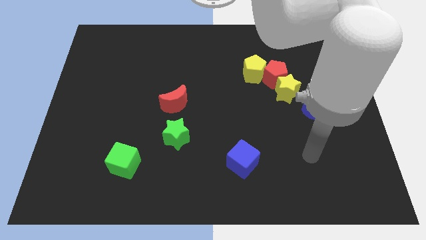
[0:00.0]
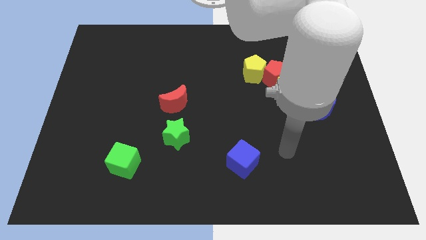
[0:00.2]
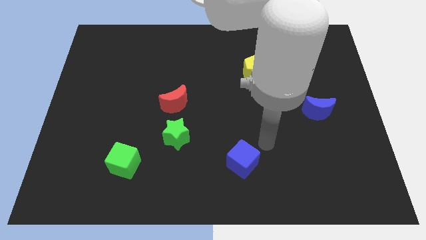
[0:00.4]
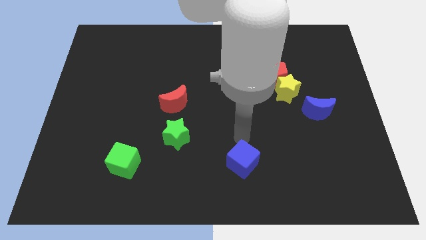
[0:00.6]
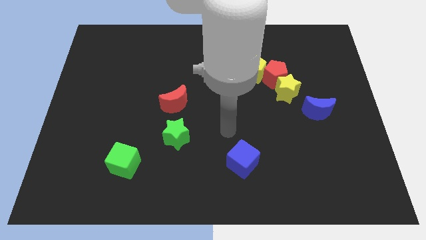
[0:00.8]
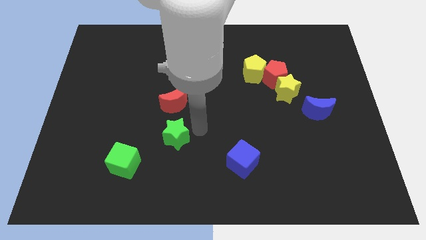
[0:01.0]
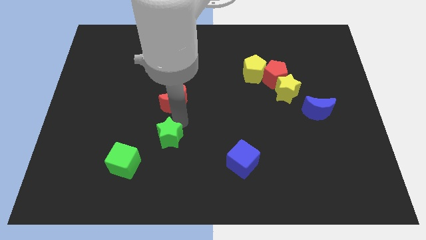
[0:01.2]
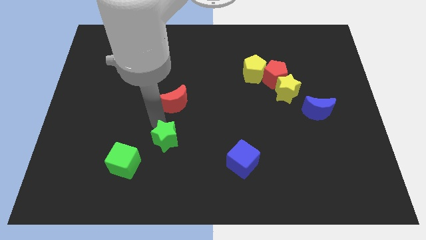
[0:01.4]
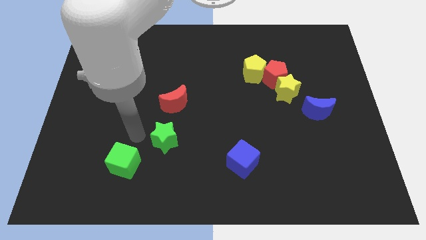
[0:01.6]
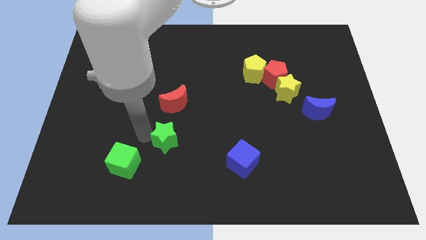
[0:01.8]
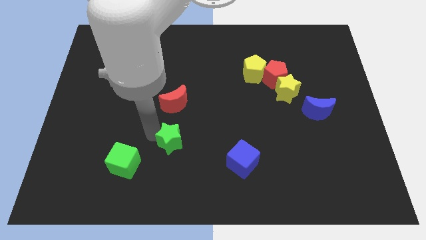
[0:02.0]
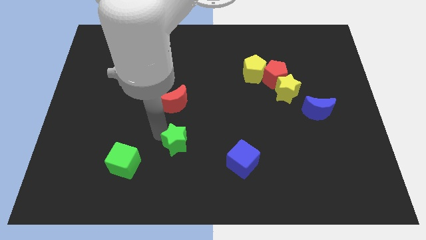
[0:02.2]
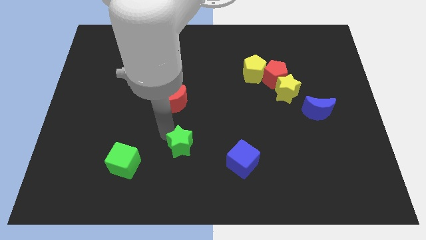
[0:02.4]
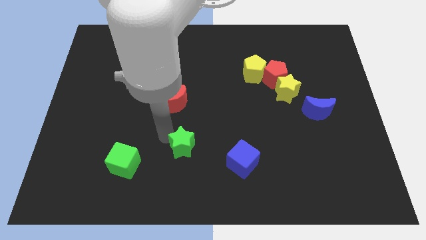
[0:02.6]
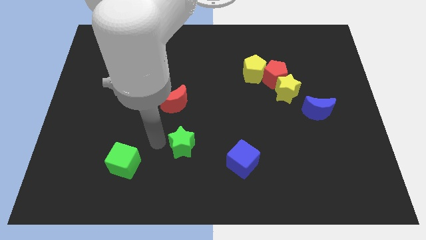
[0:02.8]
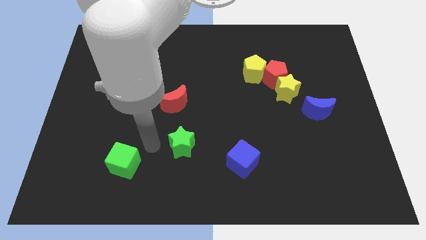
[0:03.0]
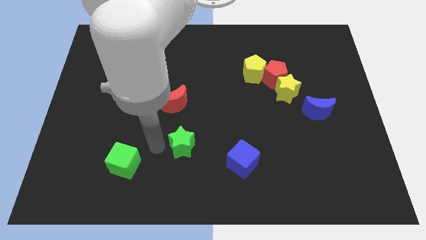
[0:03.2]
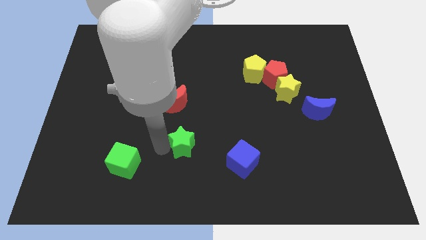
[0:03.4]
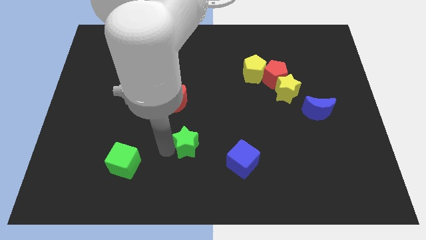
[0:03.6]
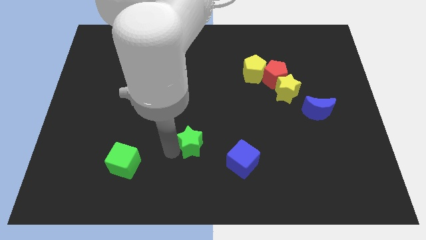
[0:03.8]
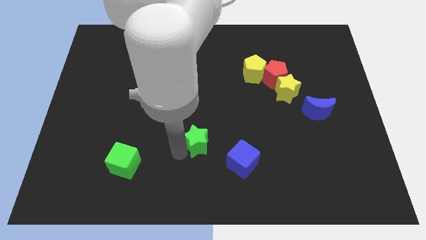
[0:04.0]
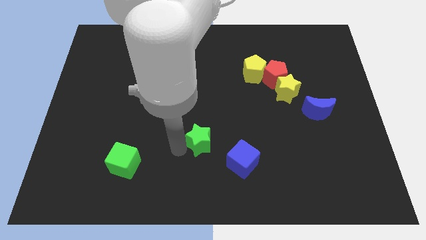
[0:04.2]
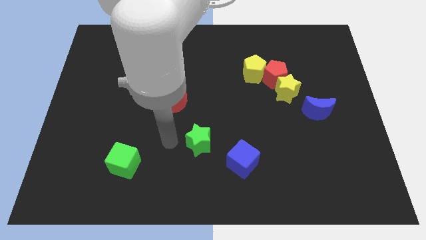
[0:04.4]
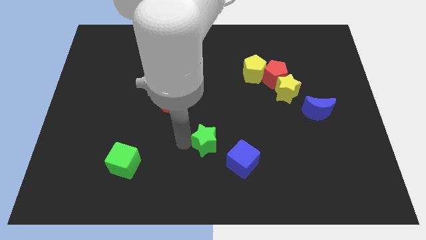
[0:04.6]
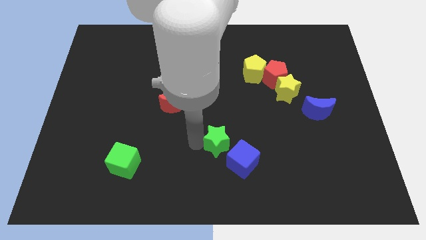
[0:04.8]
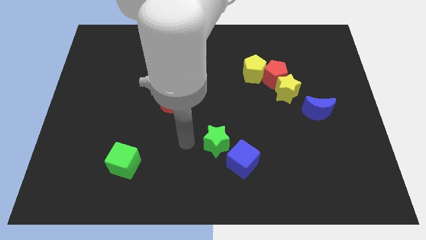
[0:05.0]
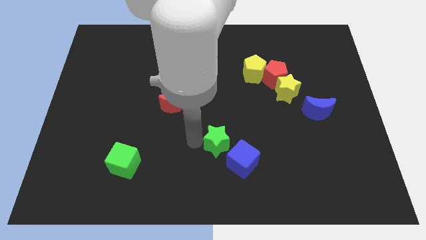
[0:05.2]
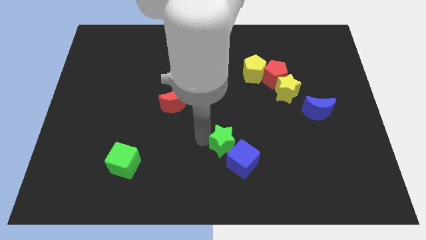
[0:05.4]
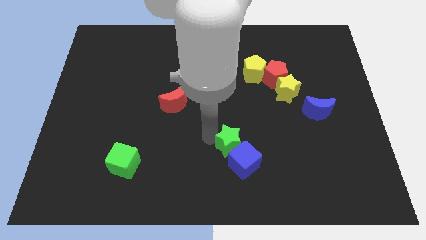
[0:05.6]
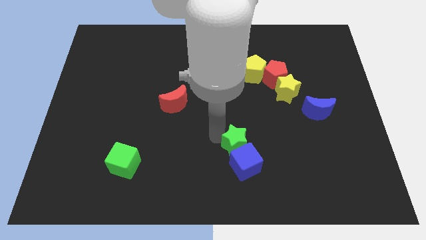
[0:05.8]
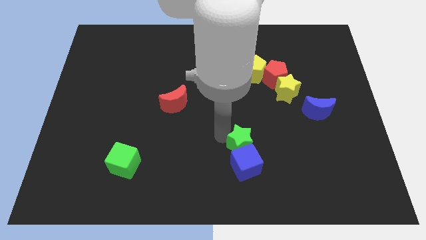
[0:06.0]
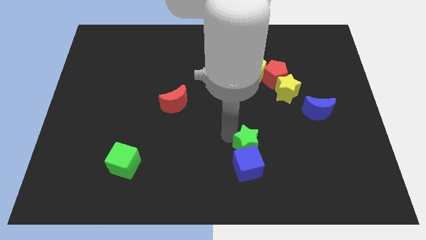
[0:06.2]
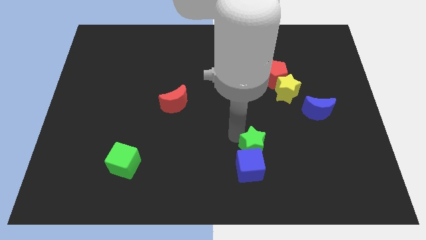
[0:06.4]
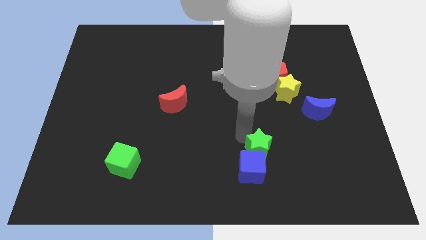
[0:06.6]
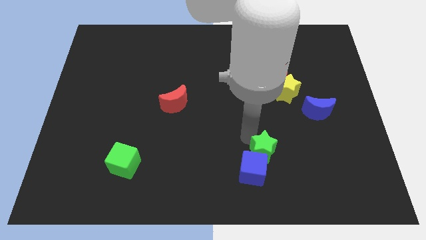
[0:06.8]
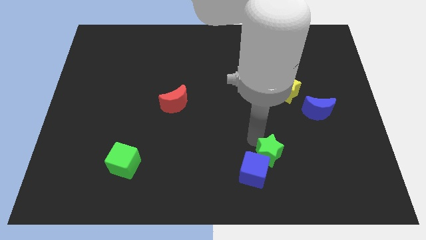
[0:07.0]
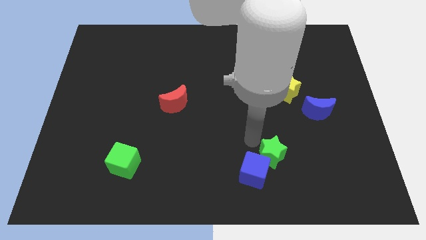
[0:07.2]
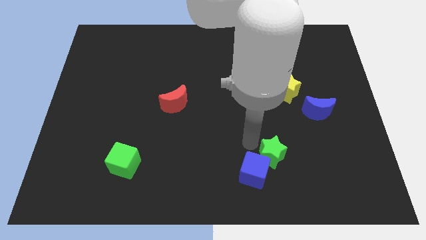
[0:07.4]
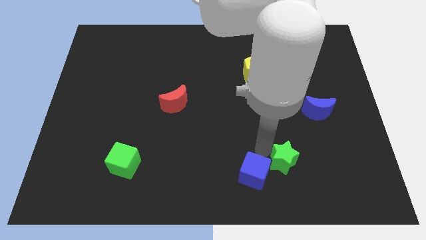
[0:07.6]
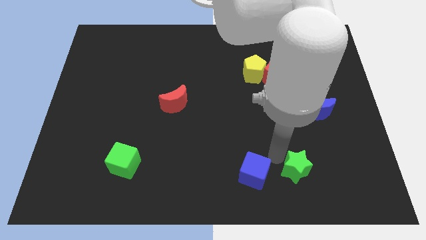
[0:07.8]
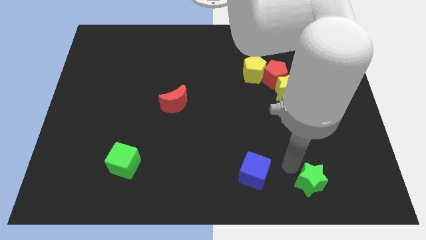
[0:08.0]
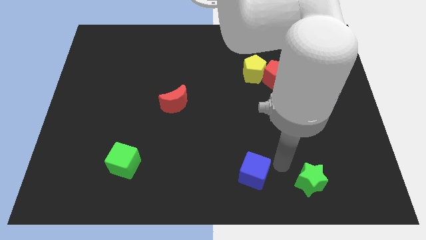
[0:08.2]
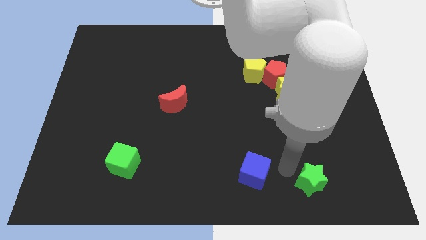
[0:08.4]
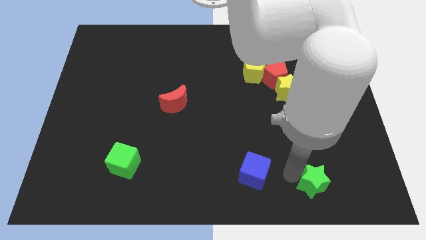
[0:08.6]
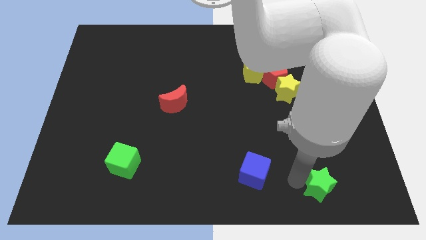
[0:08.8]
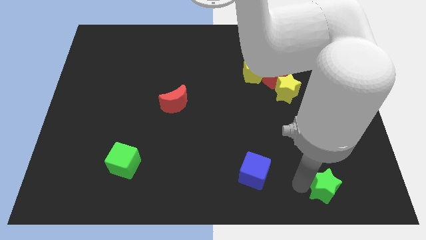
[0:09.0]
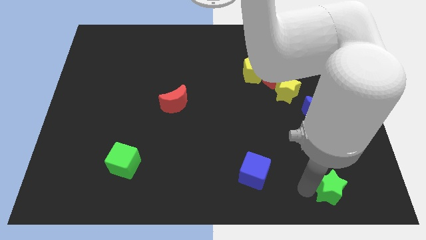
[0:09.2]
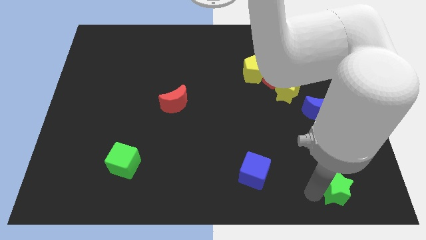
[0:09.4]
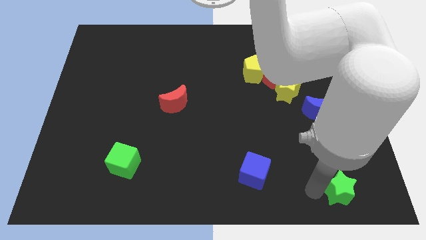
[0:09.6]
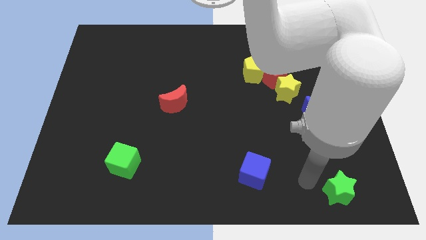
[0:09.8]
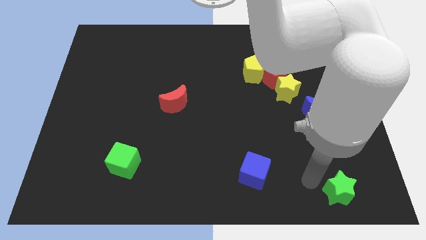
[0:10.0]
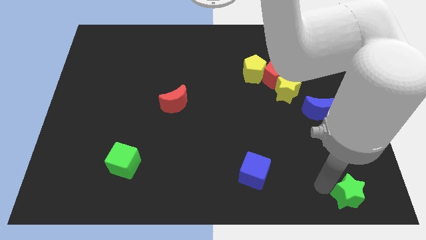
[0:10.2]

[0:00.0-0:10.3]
put the green star to the bottom right of the board

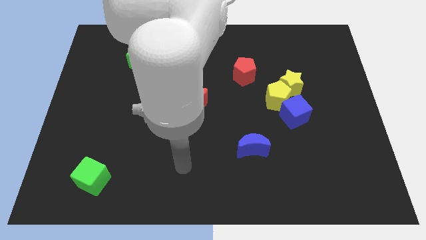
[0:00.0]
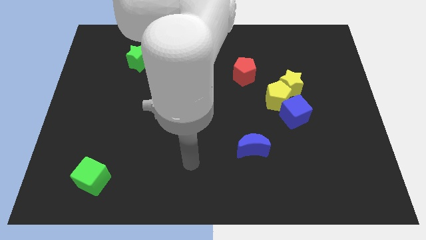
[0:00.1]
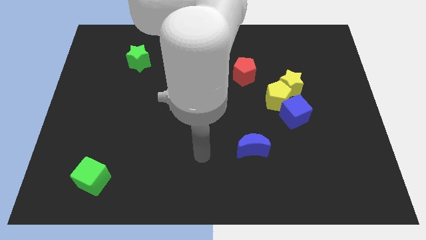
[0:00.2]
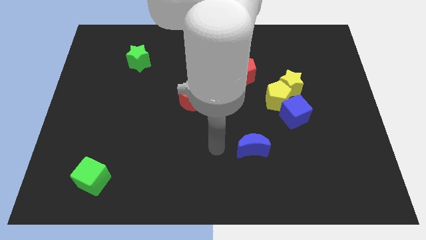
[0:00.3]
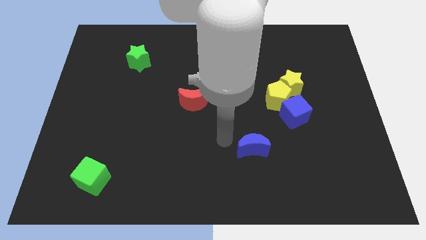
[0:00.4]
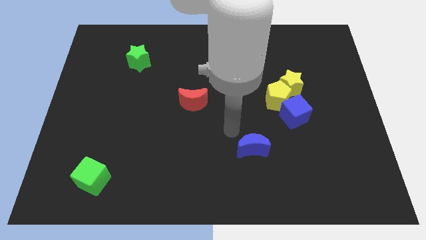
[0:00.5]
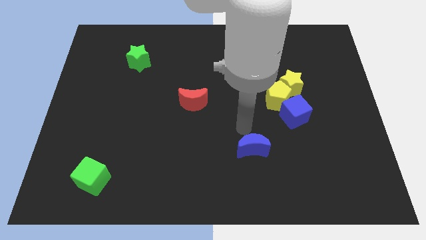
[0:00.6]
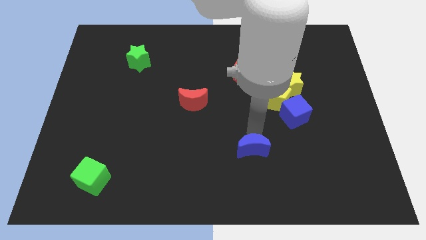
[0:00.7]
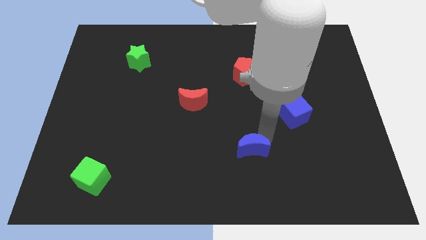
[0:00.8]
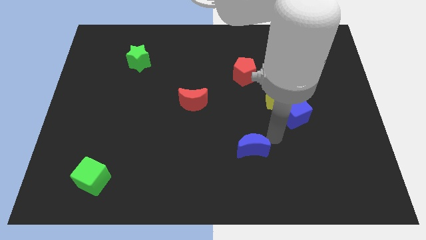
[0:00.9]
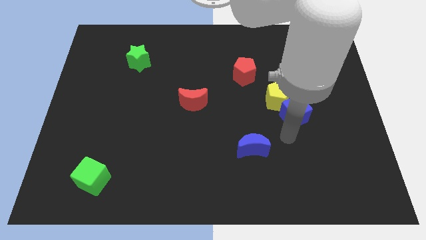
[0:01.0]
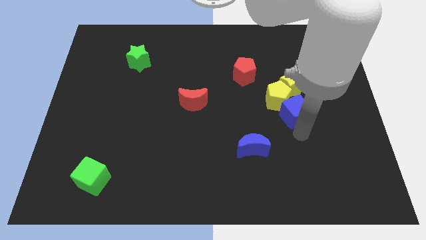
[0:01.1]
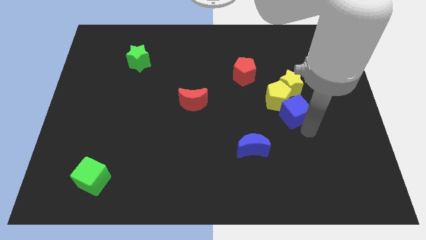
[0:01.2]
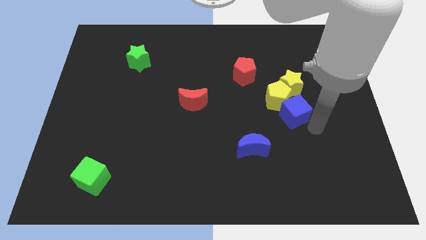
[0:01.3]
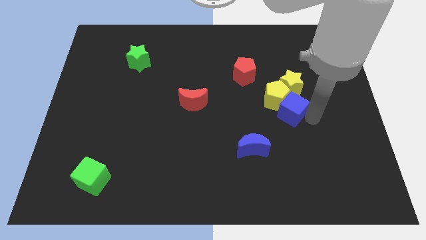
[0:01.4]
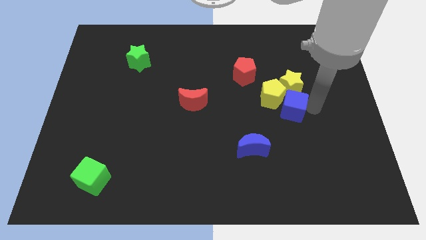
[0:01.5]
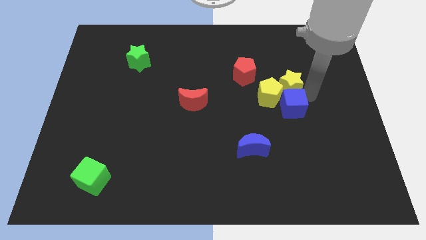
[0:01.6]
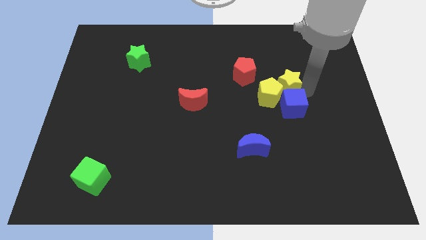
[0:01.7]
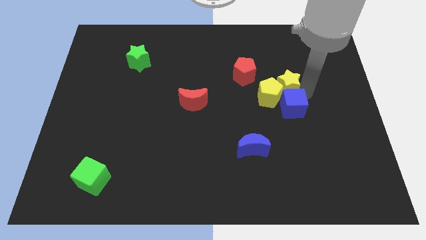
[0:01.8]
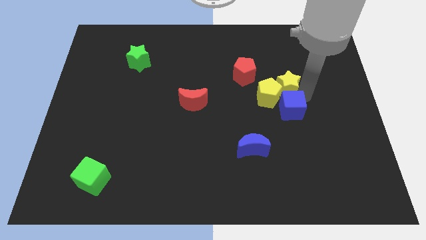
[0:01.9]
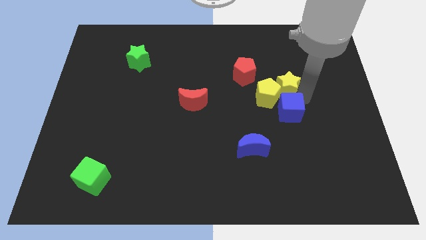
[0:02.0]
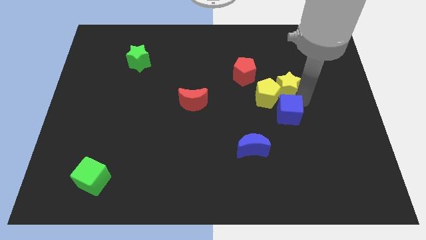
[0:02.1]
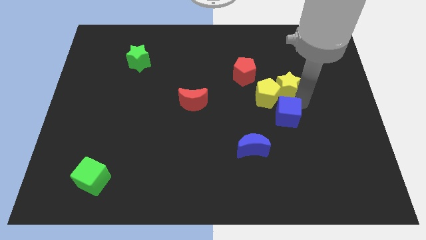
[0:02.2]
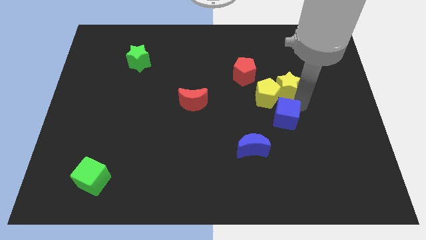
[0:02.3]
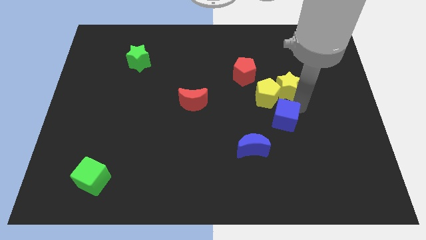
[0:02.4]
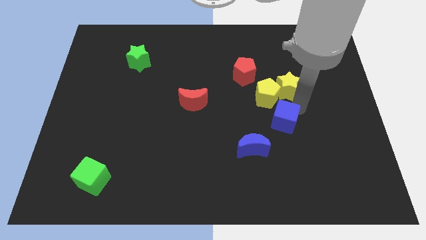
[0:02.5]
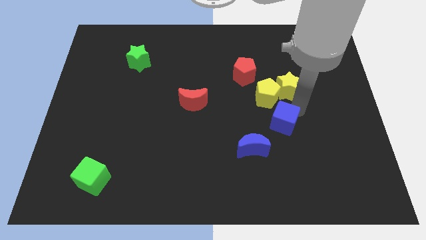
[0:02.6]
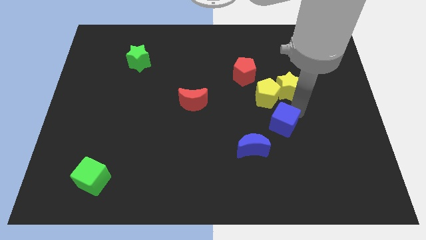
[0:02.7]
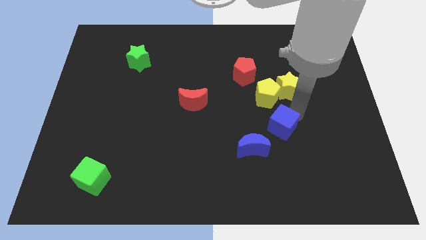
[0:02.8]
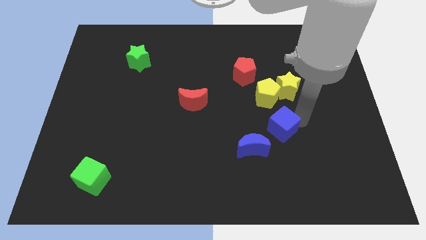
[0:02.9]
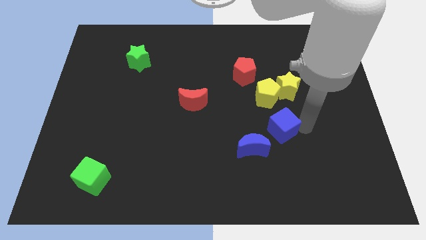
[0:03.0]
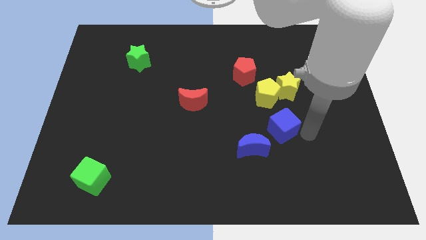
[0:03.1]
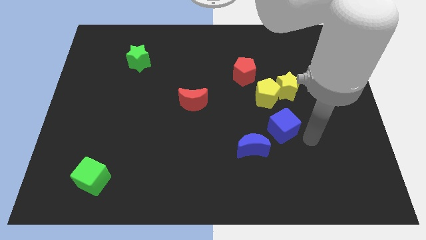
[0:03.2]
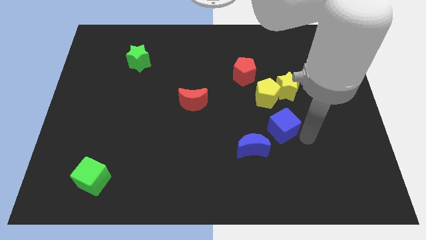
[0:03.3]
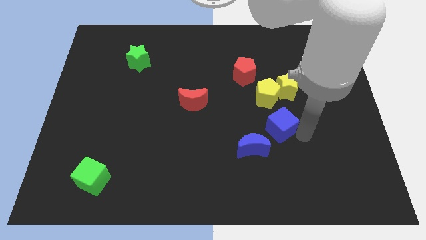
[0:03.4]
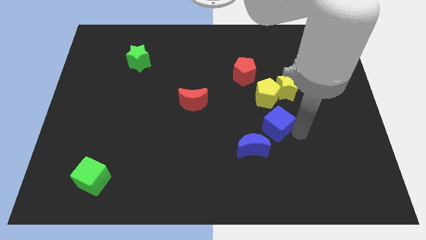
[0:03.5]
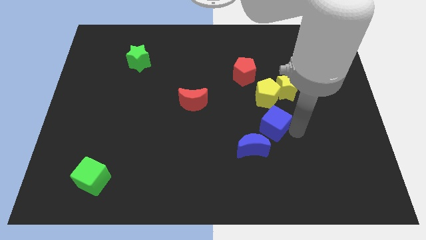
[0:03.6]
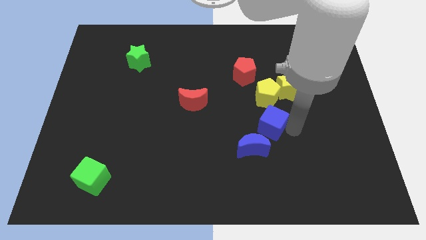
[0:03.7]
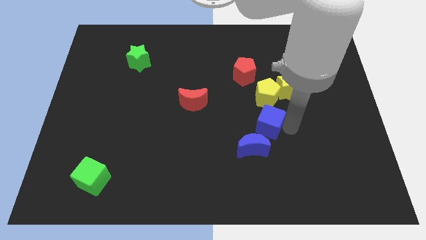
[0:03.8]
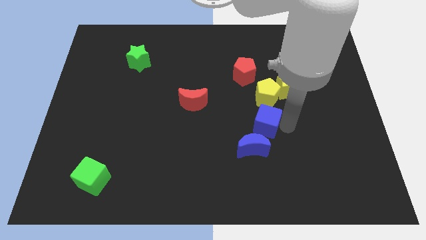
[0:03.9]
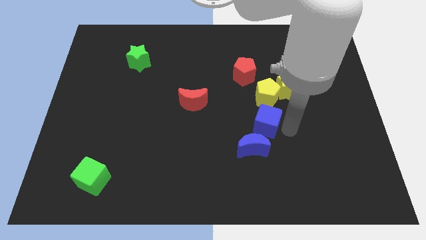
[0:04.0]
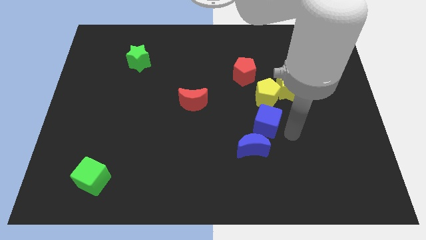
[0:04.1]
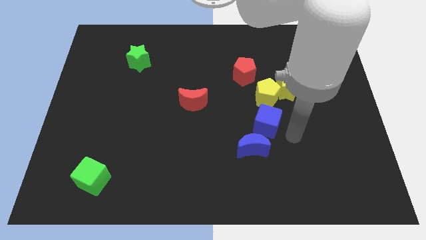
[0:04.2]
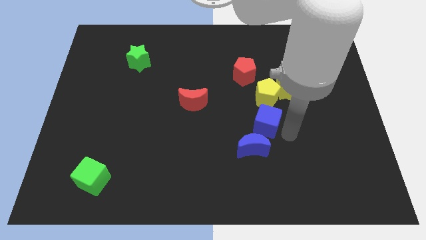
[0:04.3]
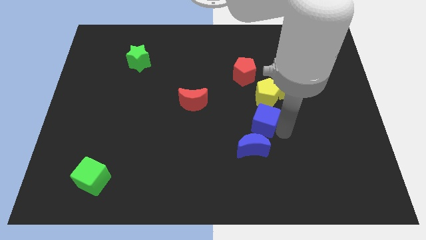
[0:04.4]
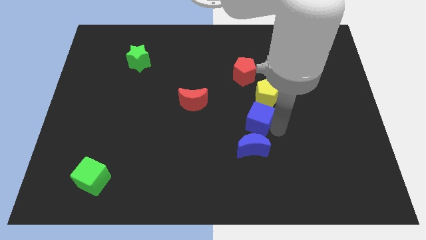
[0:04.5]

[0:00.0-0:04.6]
move the blue cube to the middle of the board
